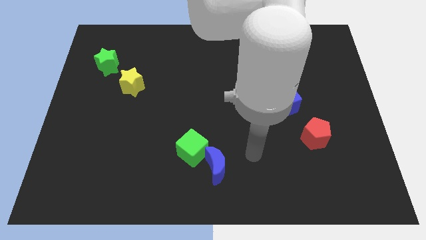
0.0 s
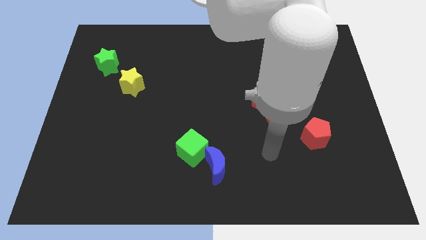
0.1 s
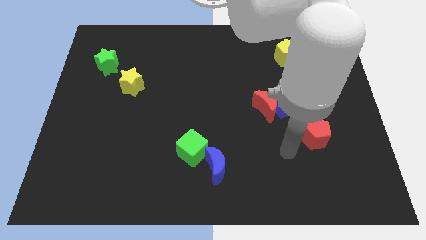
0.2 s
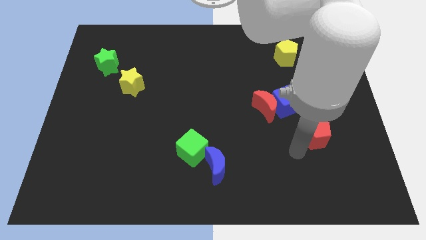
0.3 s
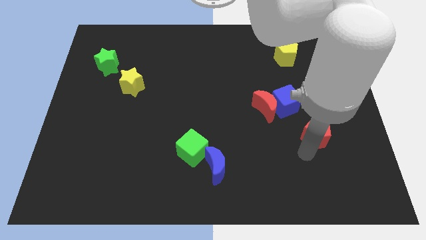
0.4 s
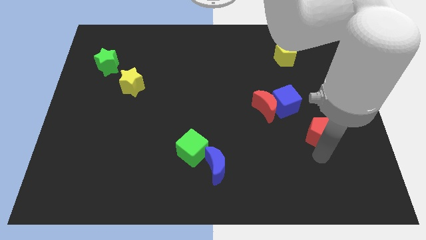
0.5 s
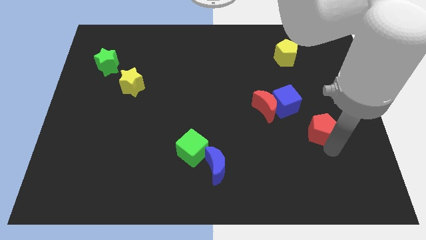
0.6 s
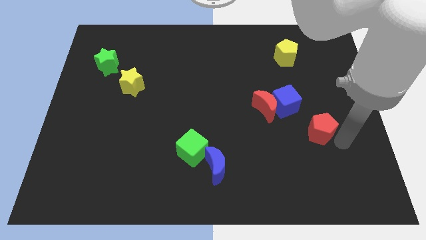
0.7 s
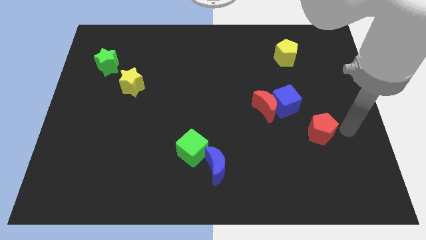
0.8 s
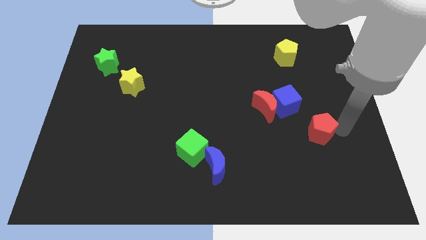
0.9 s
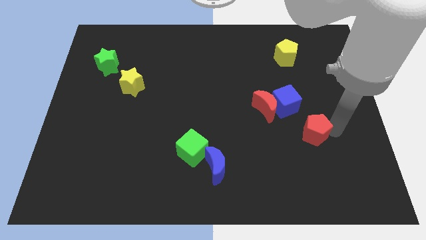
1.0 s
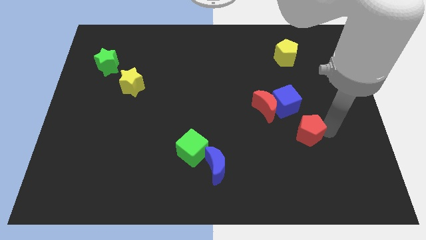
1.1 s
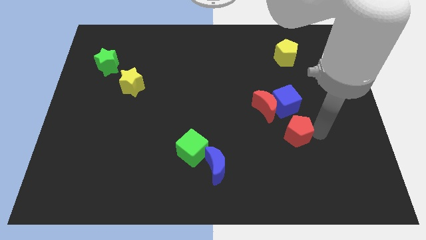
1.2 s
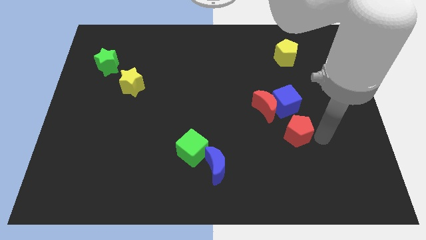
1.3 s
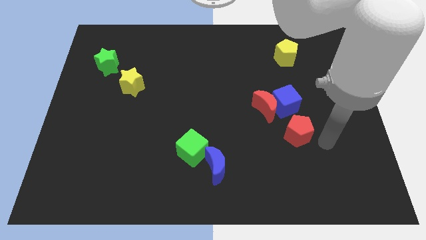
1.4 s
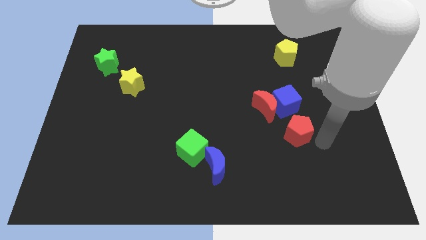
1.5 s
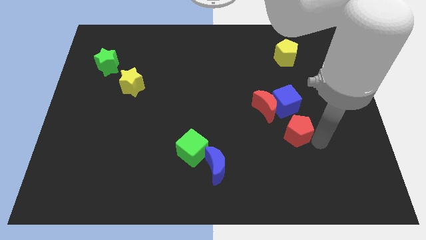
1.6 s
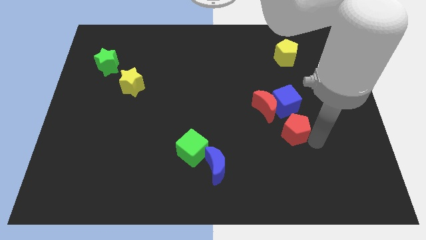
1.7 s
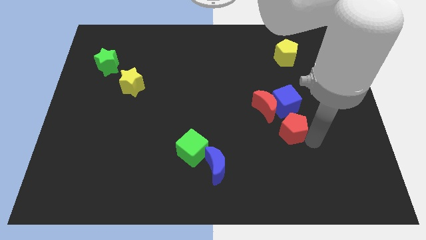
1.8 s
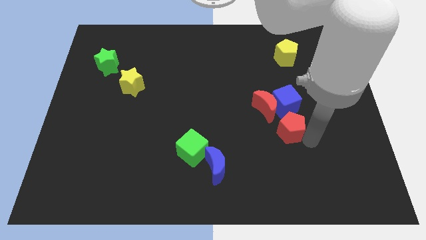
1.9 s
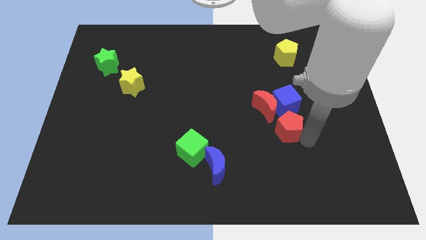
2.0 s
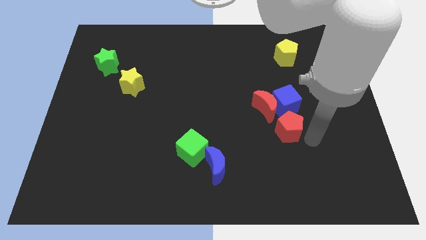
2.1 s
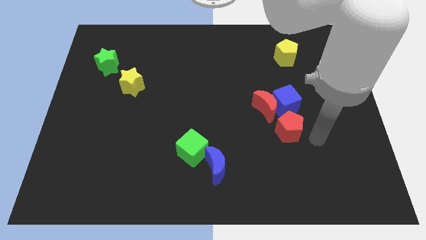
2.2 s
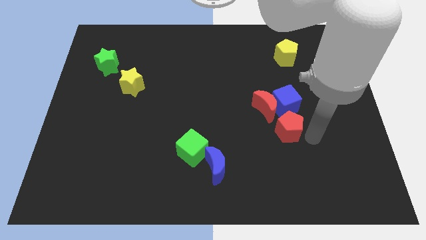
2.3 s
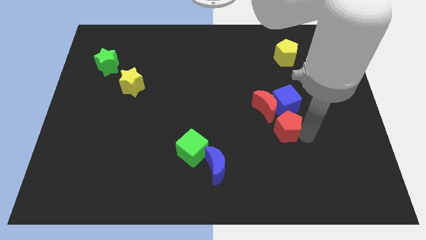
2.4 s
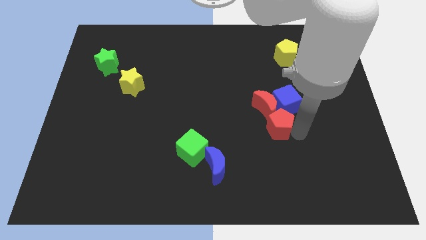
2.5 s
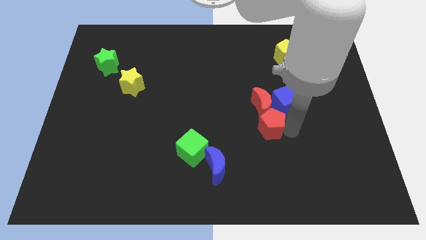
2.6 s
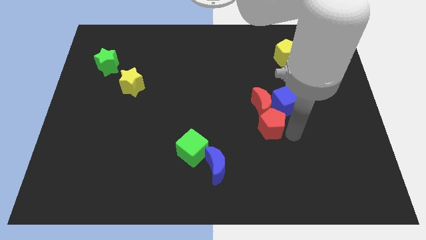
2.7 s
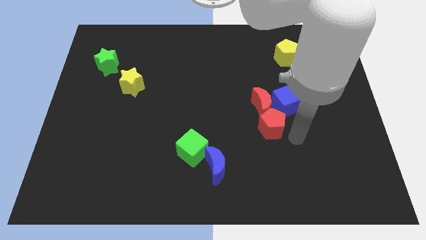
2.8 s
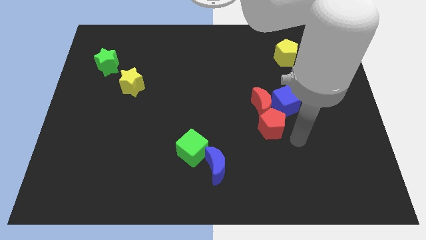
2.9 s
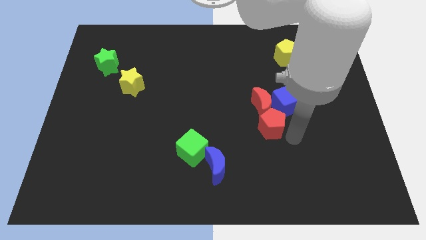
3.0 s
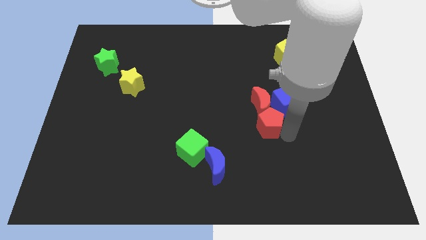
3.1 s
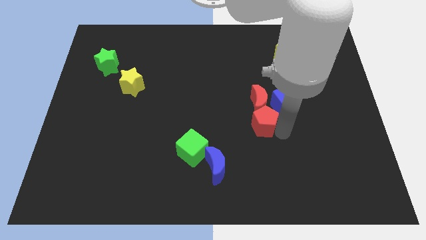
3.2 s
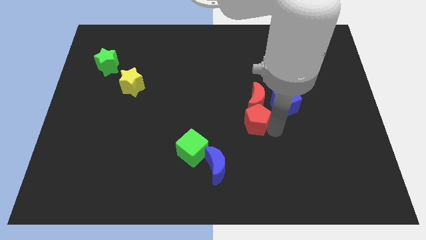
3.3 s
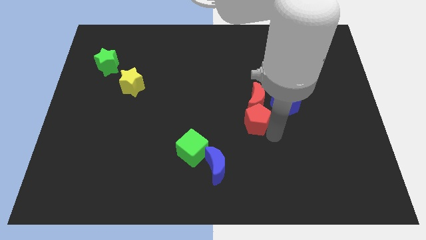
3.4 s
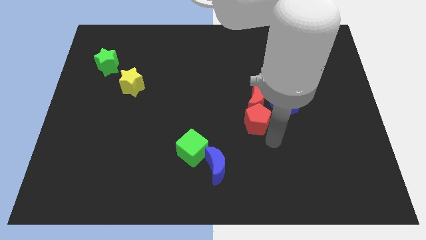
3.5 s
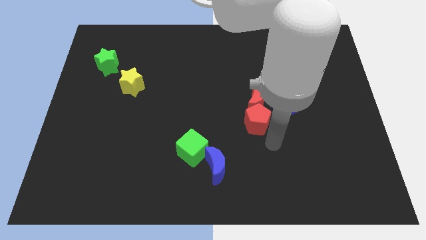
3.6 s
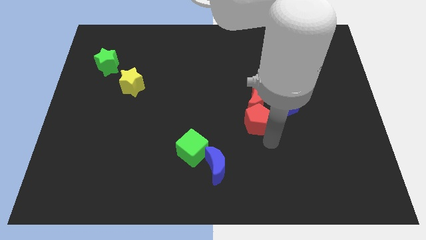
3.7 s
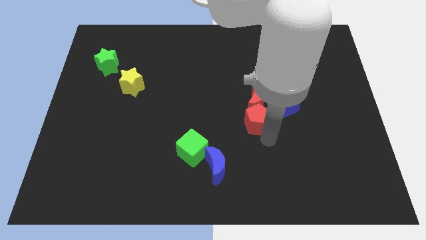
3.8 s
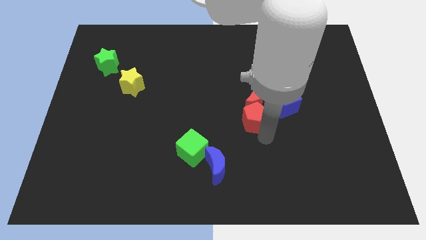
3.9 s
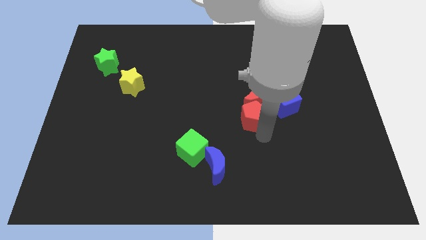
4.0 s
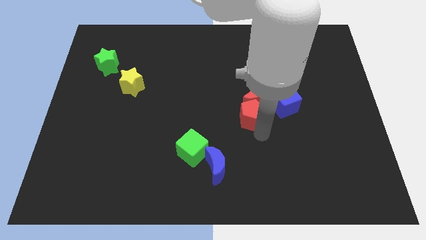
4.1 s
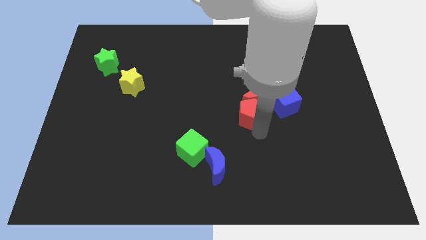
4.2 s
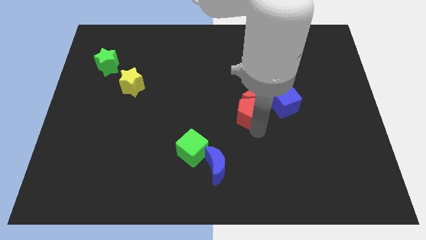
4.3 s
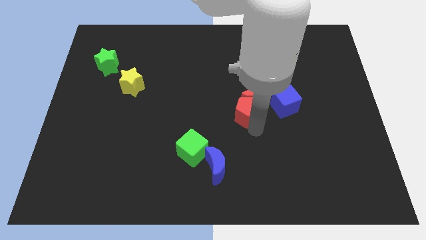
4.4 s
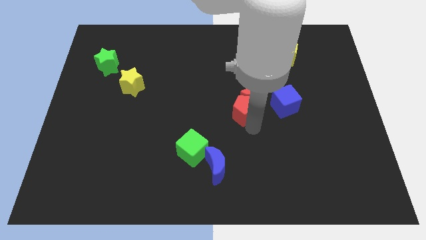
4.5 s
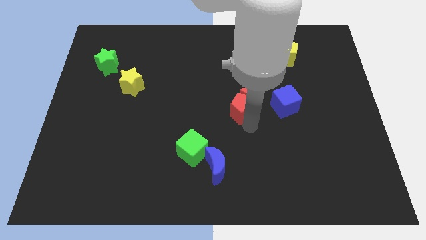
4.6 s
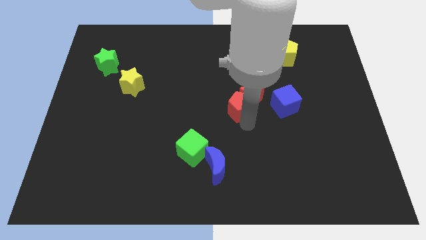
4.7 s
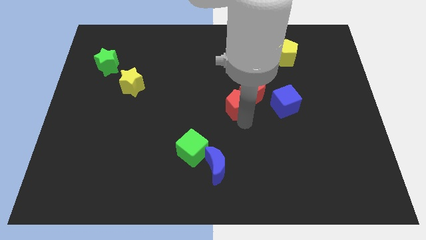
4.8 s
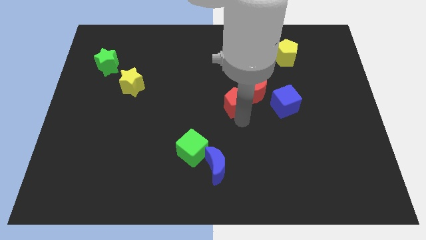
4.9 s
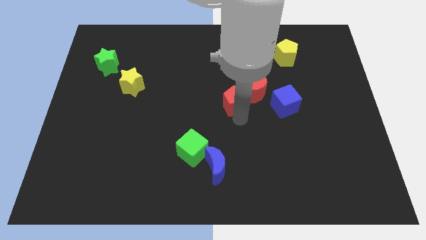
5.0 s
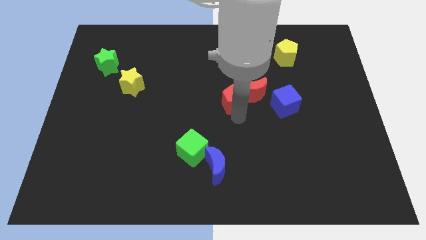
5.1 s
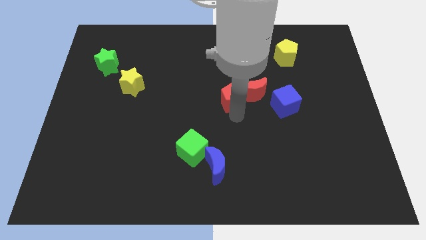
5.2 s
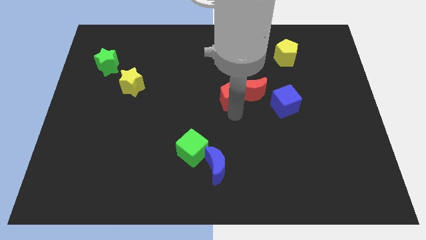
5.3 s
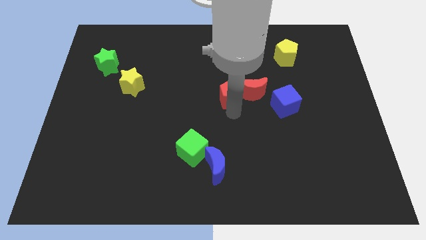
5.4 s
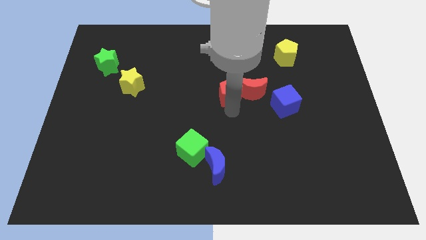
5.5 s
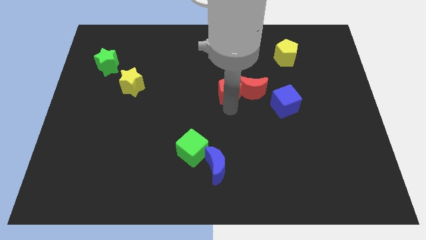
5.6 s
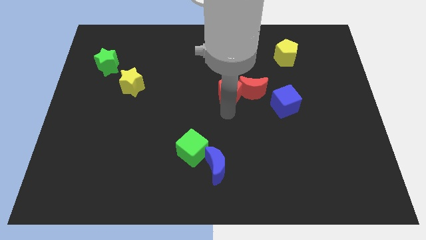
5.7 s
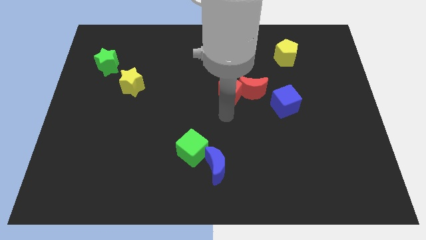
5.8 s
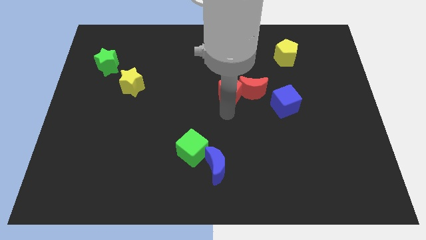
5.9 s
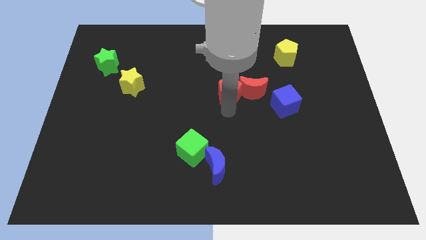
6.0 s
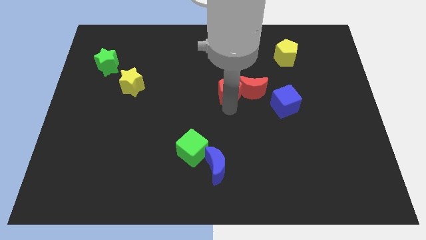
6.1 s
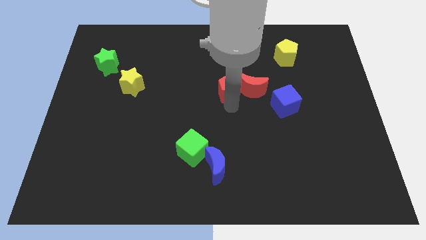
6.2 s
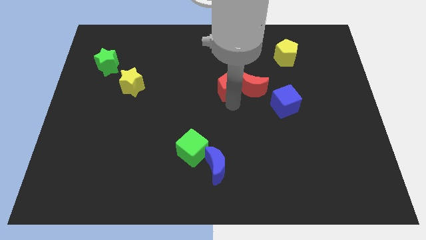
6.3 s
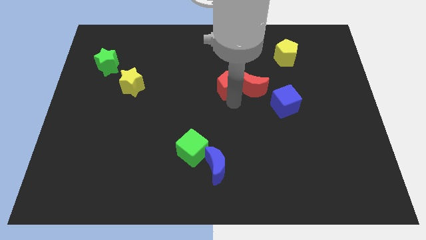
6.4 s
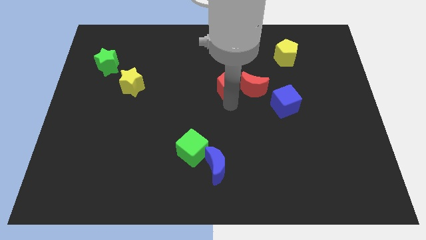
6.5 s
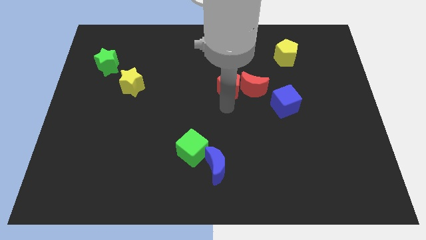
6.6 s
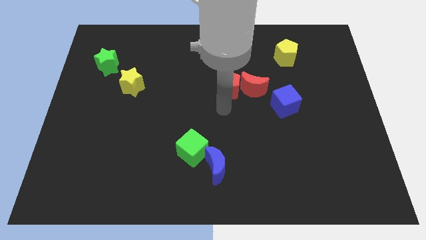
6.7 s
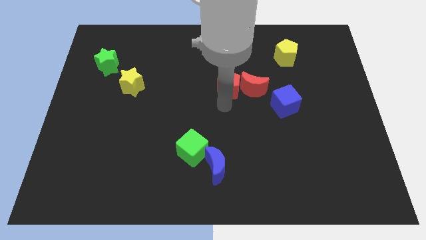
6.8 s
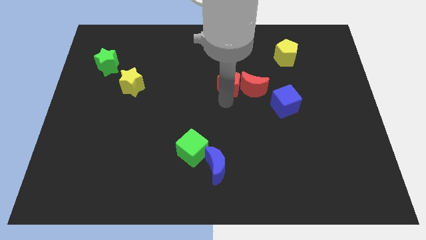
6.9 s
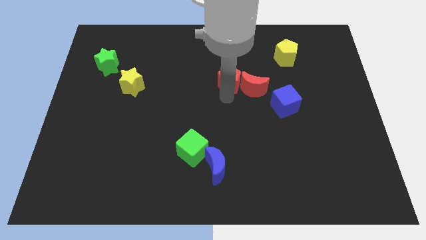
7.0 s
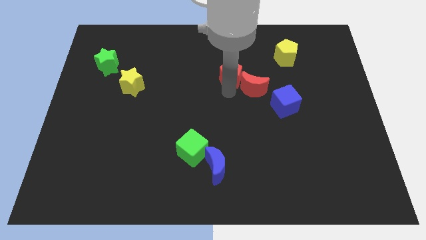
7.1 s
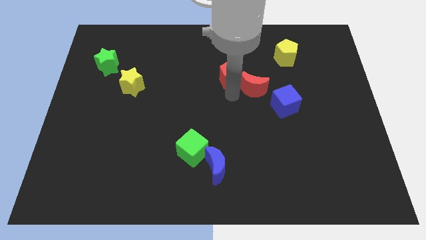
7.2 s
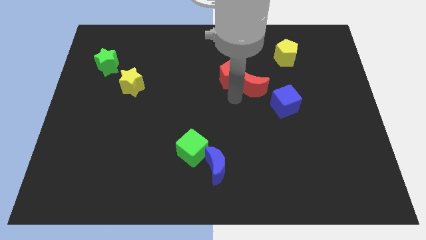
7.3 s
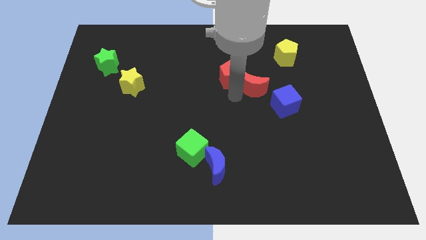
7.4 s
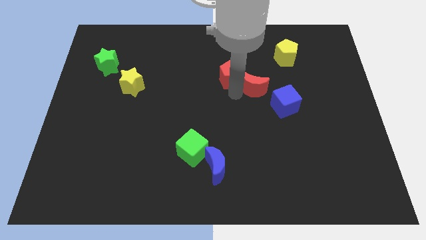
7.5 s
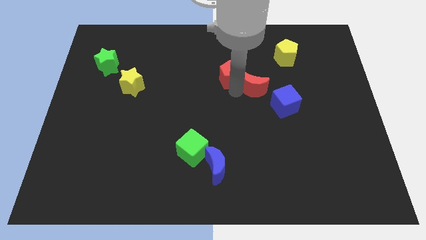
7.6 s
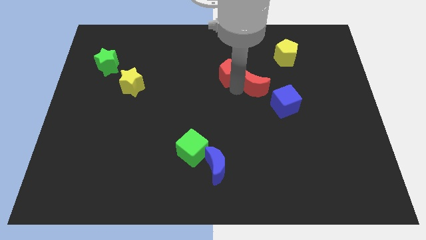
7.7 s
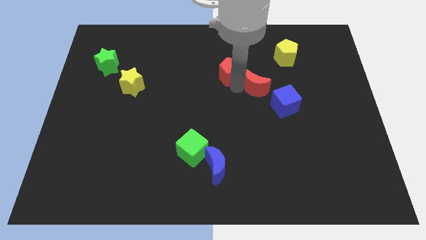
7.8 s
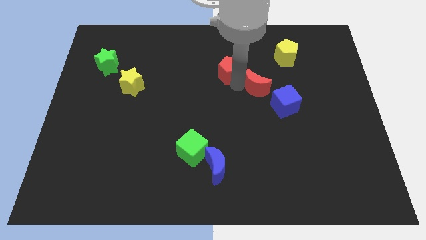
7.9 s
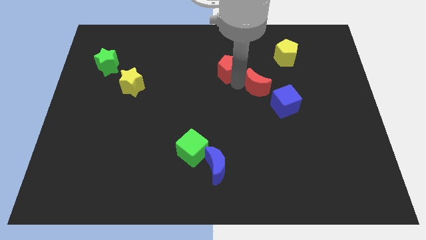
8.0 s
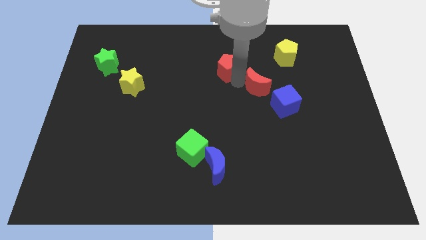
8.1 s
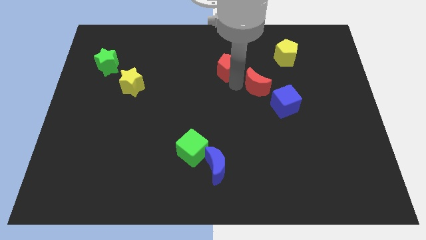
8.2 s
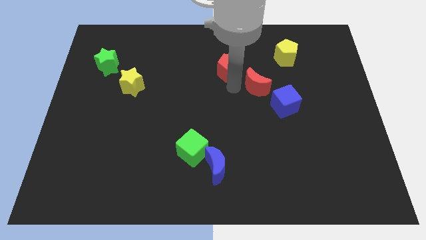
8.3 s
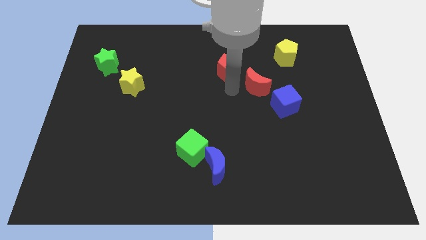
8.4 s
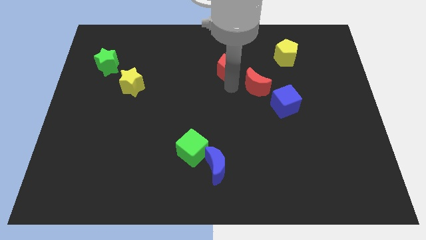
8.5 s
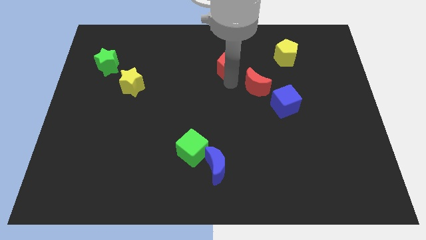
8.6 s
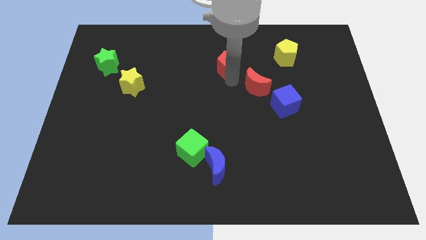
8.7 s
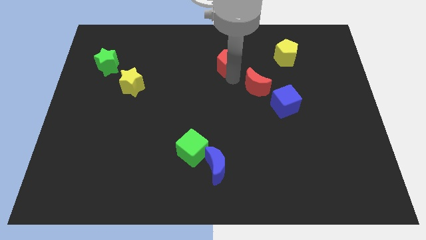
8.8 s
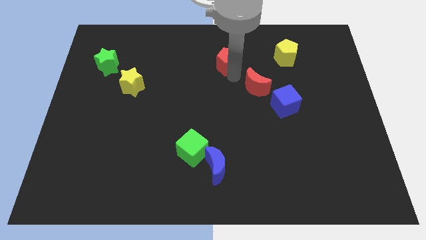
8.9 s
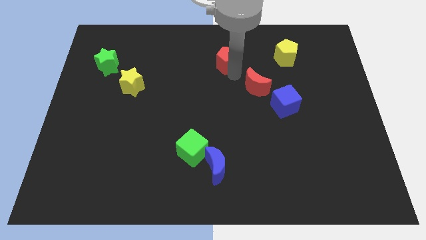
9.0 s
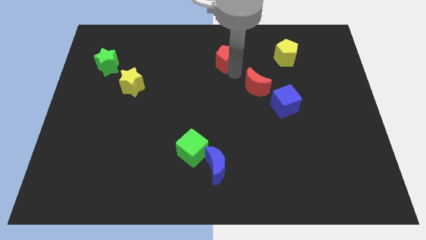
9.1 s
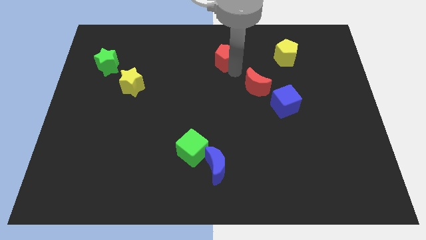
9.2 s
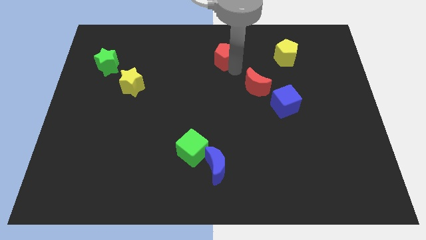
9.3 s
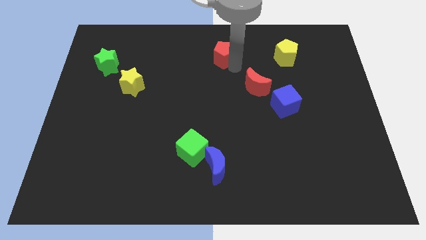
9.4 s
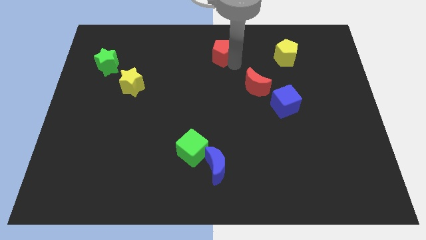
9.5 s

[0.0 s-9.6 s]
push the red pentagon to the top
